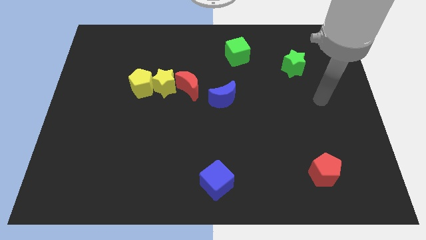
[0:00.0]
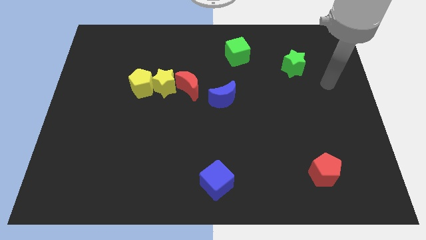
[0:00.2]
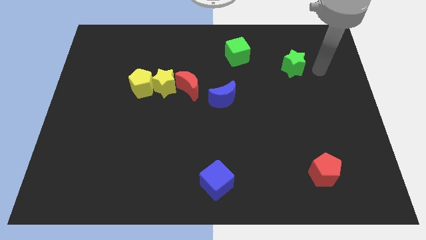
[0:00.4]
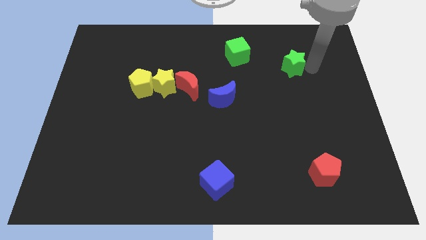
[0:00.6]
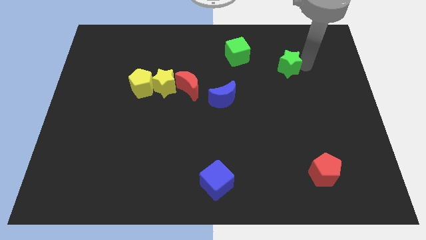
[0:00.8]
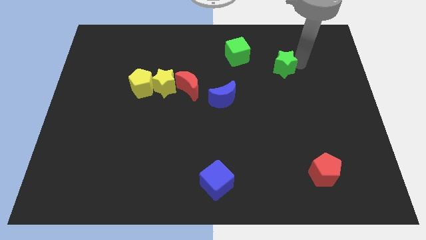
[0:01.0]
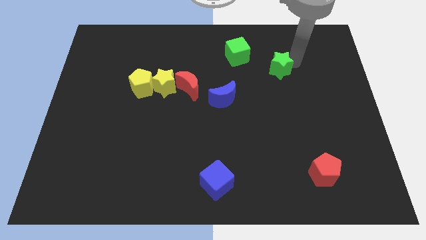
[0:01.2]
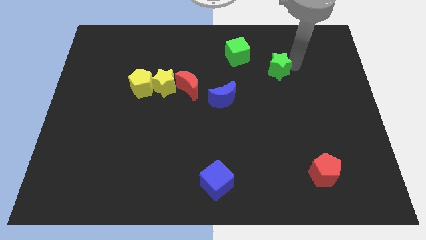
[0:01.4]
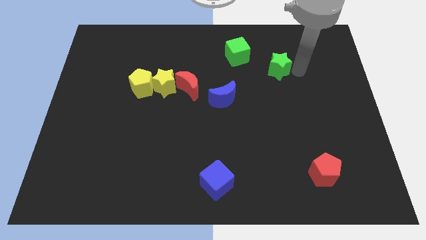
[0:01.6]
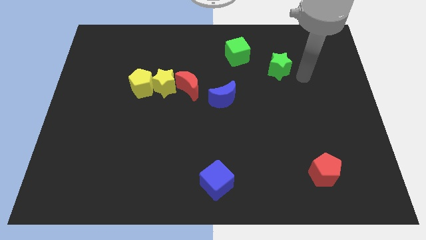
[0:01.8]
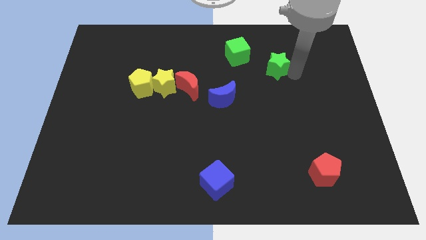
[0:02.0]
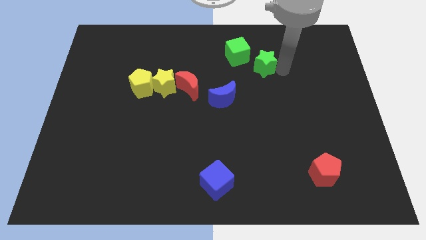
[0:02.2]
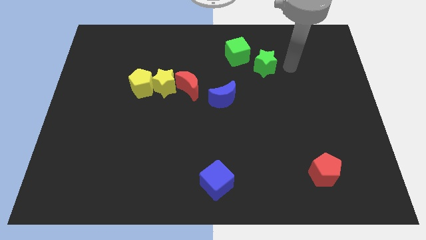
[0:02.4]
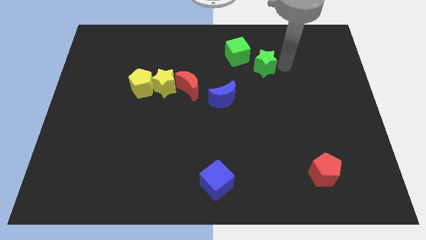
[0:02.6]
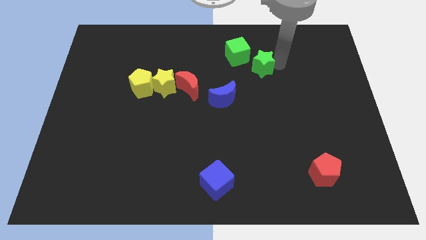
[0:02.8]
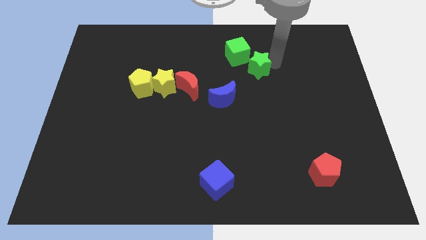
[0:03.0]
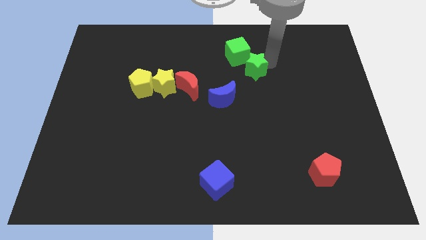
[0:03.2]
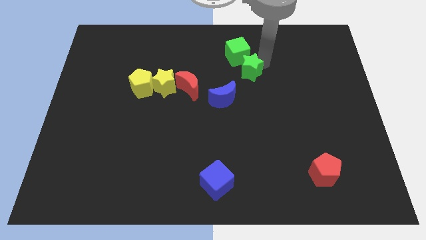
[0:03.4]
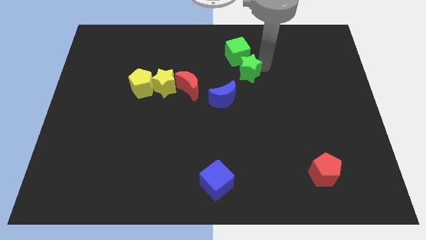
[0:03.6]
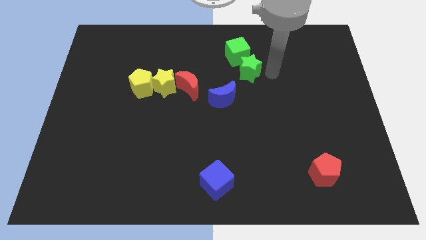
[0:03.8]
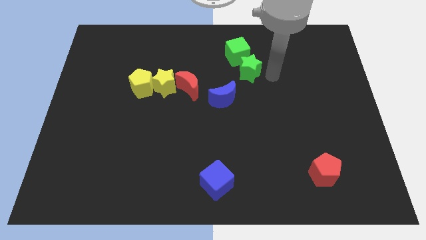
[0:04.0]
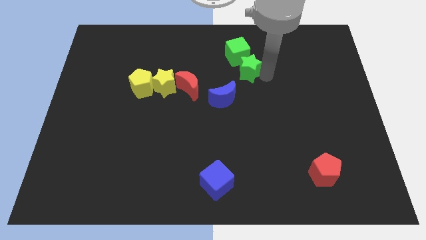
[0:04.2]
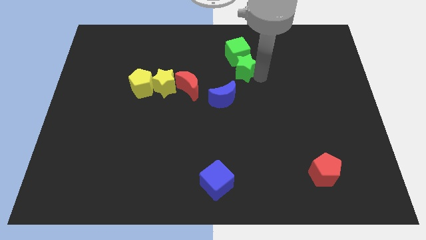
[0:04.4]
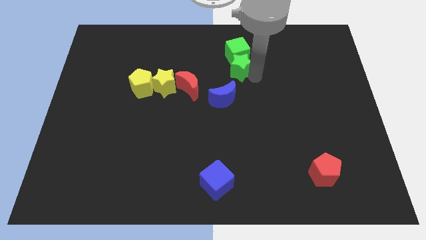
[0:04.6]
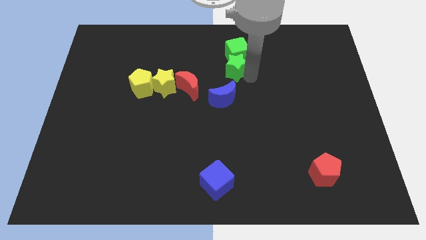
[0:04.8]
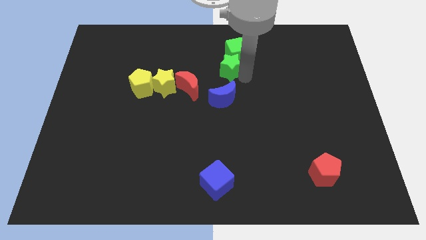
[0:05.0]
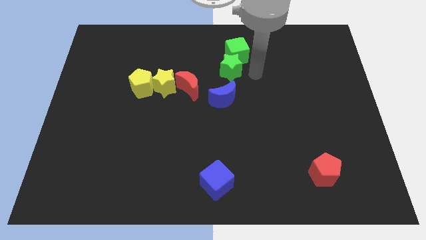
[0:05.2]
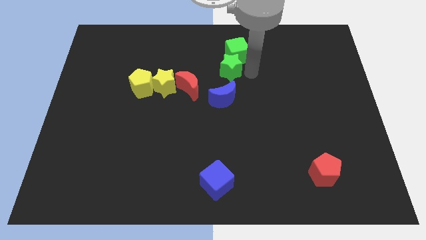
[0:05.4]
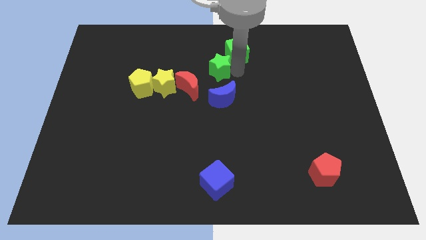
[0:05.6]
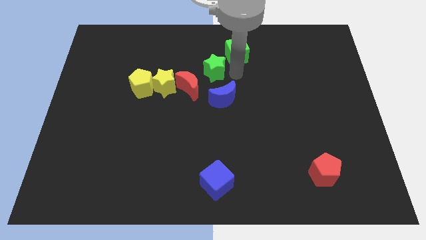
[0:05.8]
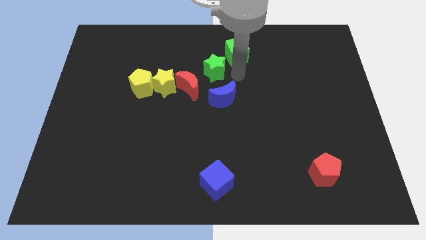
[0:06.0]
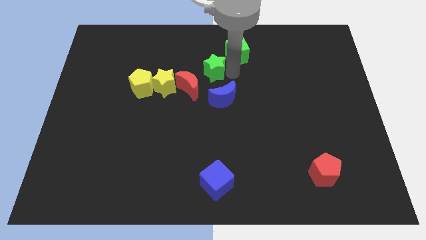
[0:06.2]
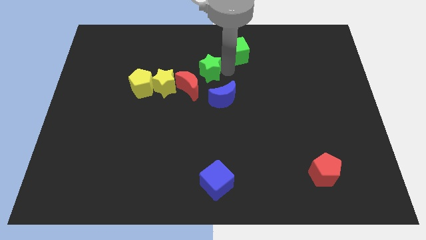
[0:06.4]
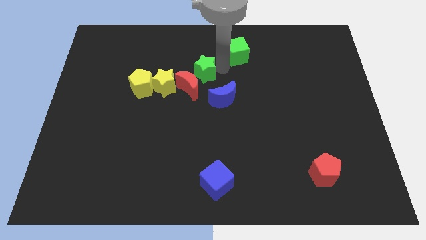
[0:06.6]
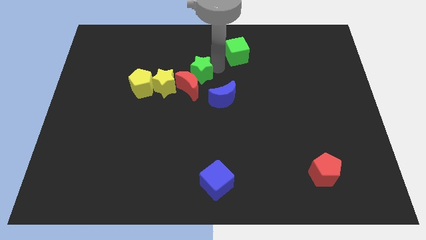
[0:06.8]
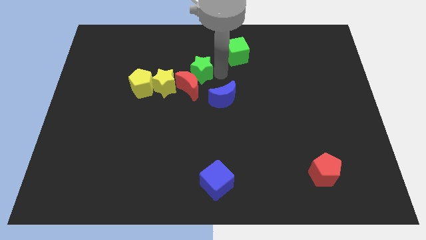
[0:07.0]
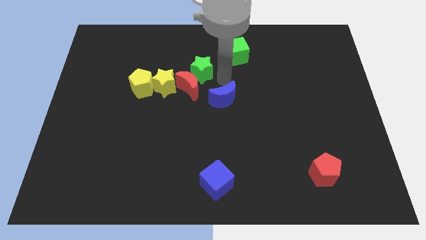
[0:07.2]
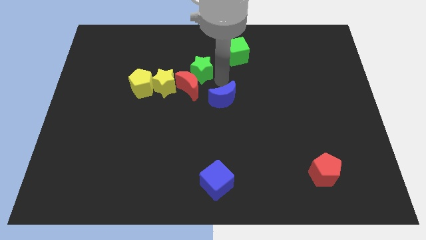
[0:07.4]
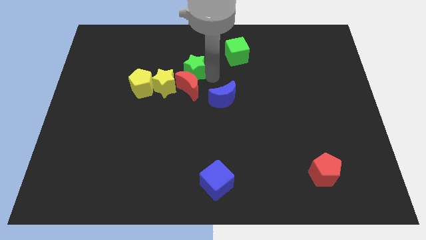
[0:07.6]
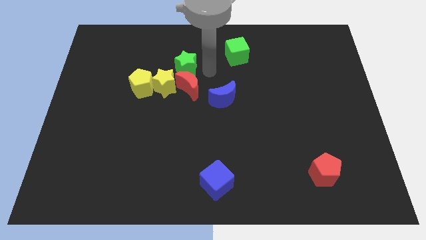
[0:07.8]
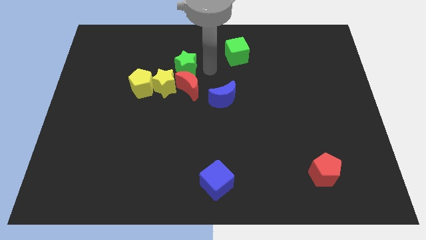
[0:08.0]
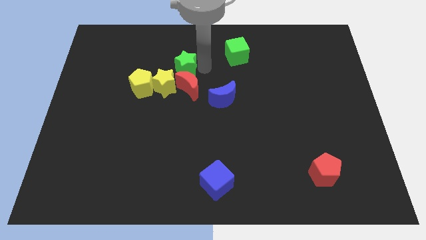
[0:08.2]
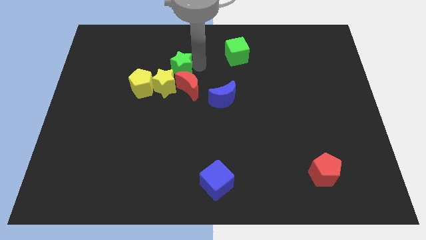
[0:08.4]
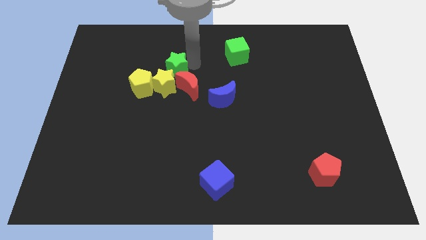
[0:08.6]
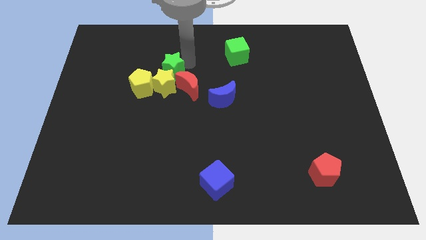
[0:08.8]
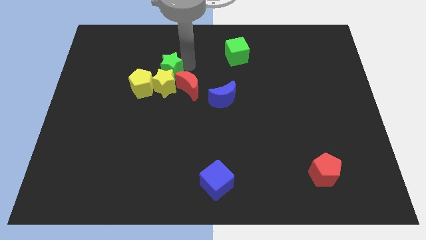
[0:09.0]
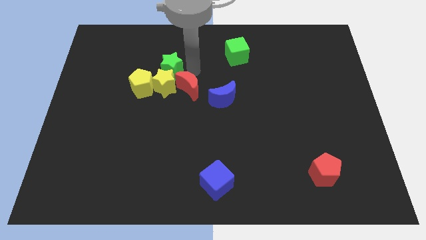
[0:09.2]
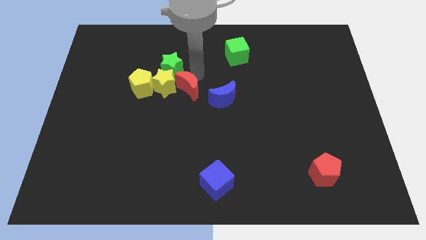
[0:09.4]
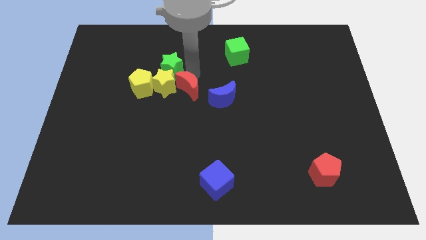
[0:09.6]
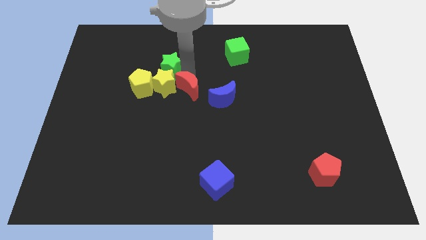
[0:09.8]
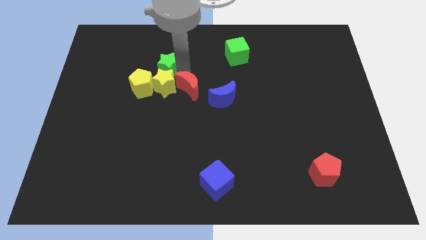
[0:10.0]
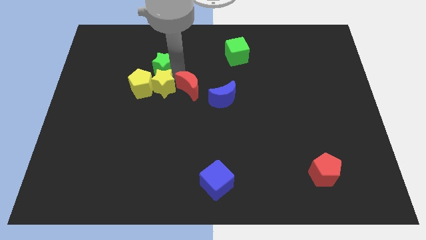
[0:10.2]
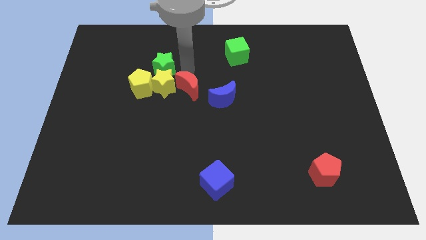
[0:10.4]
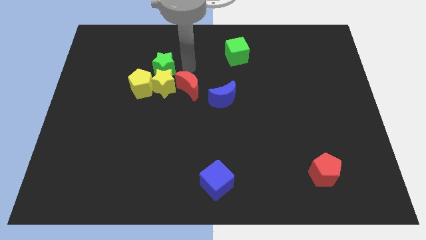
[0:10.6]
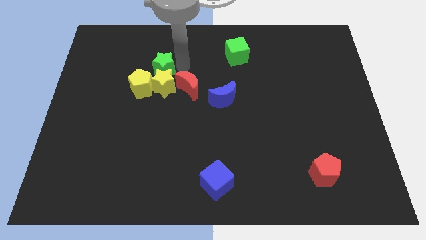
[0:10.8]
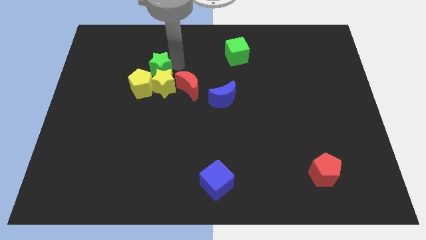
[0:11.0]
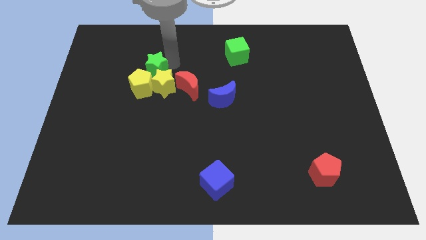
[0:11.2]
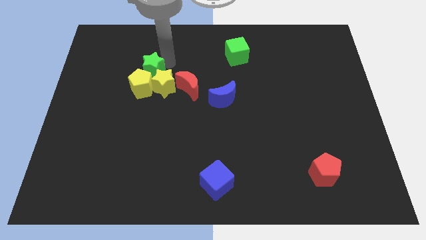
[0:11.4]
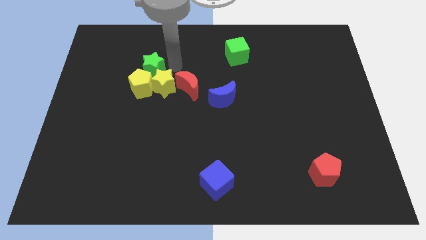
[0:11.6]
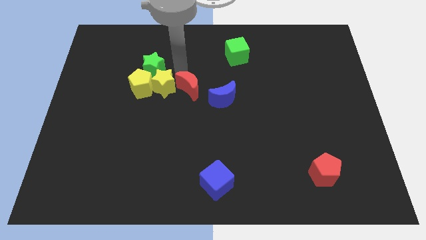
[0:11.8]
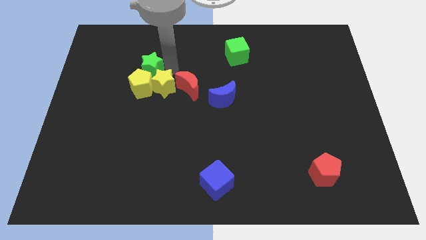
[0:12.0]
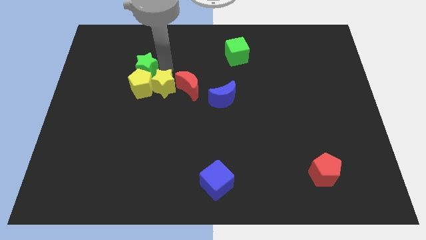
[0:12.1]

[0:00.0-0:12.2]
slide the green star to the top left side of the yellow pentagon

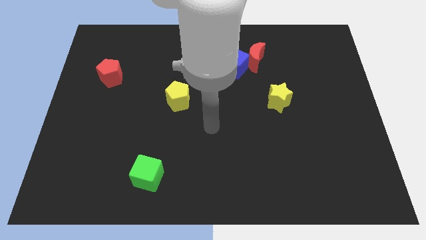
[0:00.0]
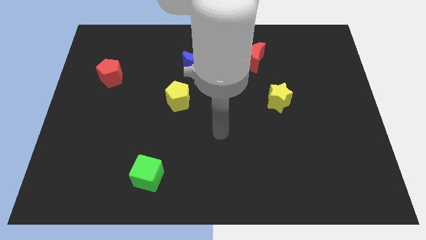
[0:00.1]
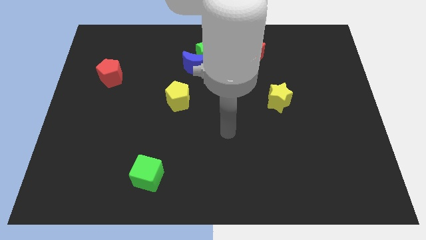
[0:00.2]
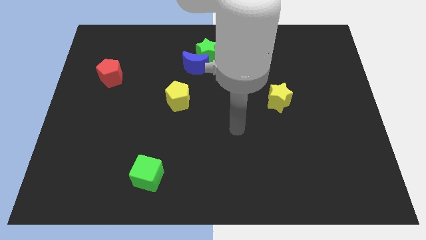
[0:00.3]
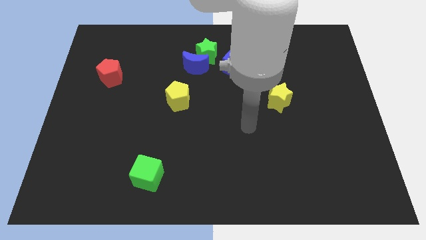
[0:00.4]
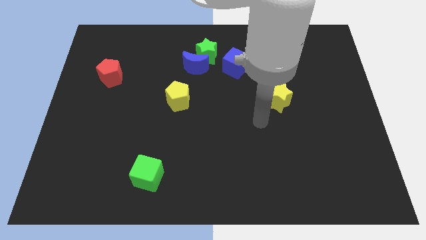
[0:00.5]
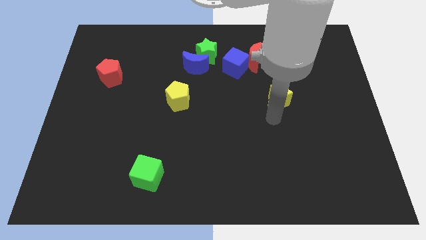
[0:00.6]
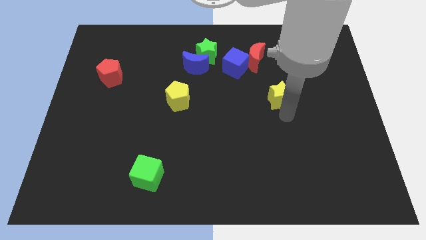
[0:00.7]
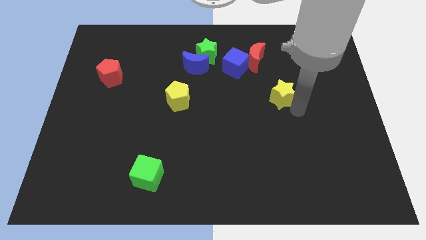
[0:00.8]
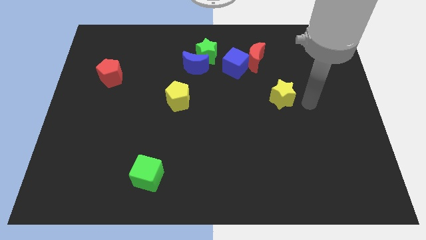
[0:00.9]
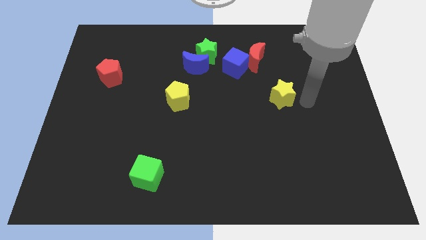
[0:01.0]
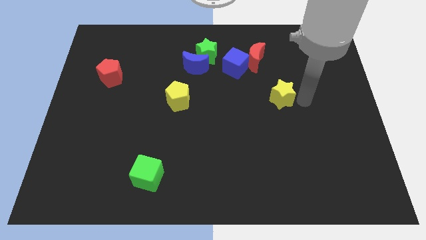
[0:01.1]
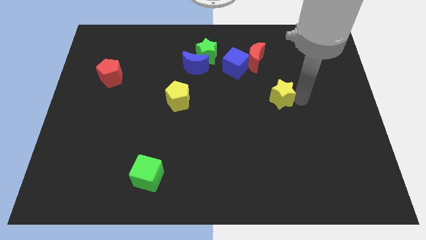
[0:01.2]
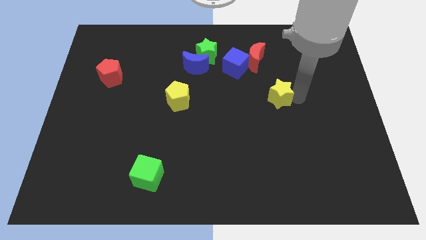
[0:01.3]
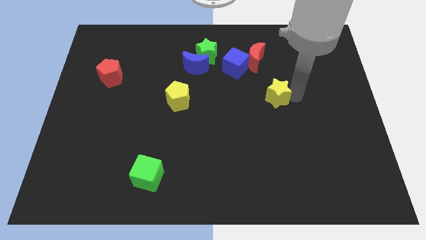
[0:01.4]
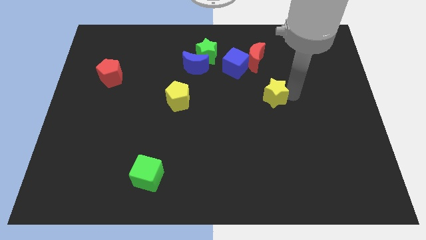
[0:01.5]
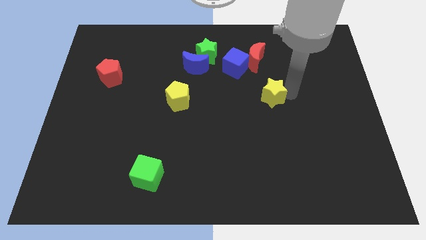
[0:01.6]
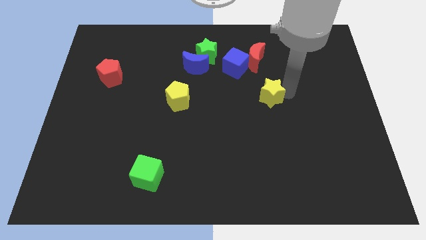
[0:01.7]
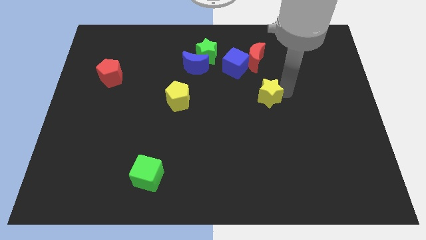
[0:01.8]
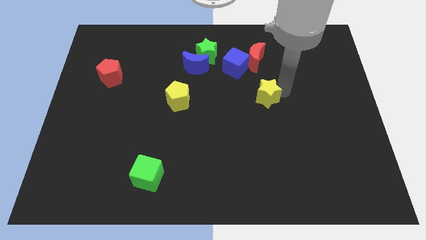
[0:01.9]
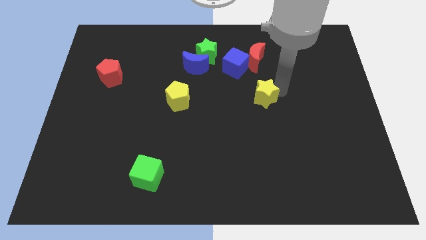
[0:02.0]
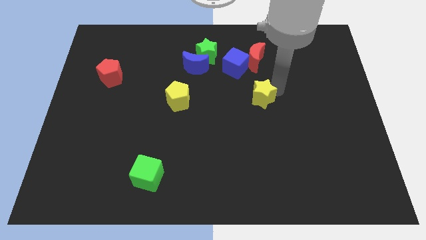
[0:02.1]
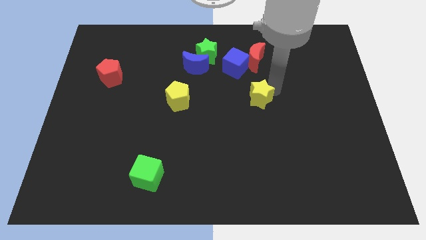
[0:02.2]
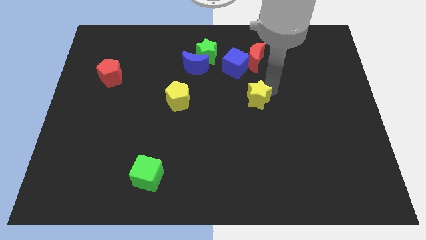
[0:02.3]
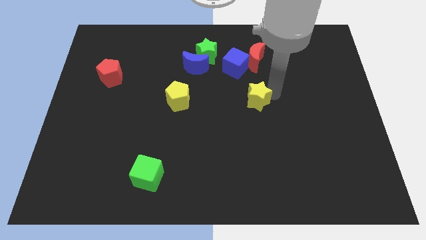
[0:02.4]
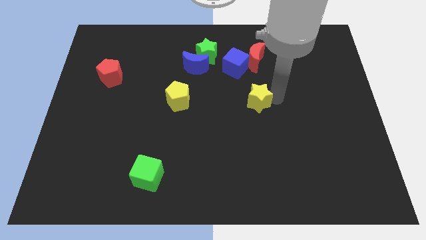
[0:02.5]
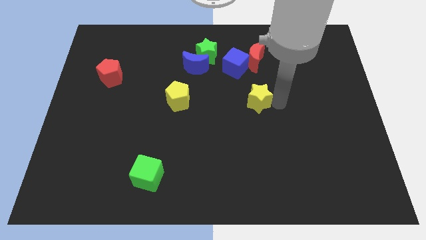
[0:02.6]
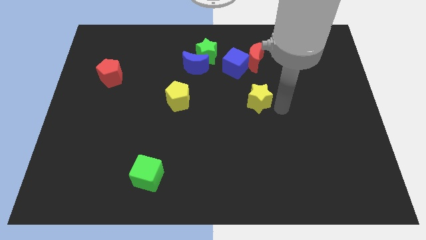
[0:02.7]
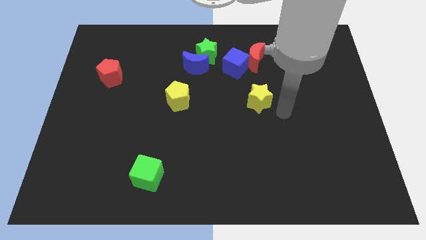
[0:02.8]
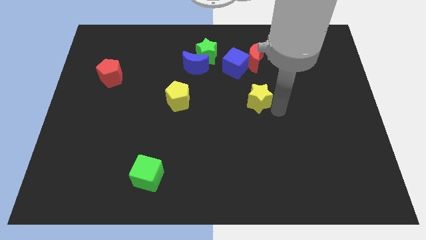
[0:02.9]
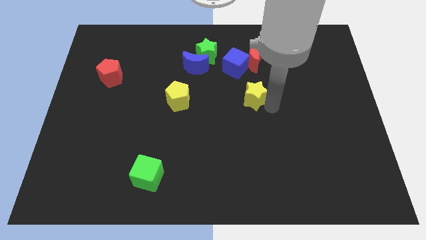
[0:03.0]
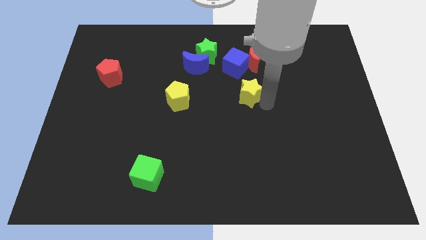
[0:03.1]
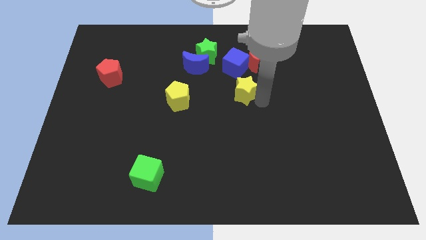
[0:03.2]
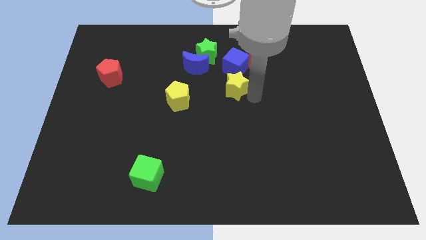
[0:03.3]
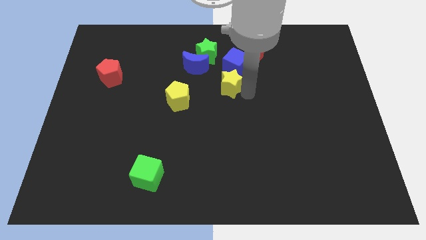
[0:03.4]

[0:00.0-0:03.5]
put the yellow star to the bottom left of the blue cube
